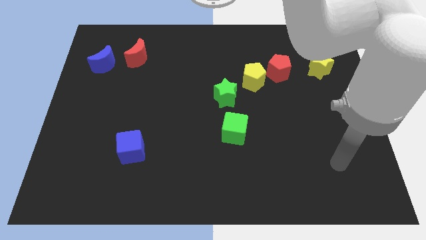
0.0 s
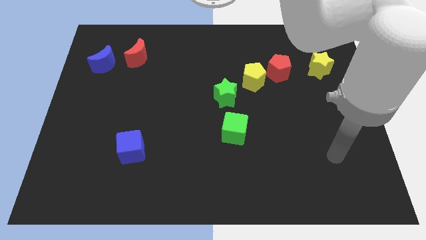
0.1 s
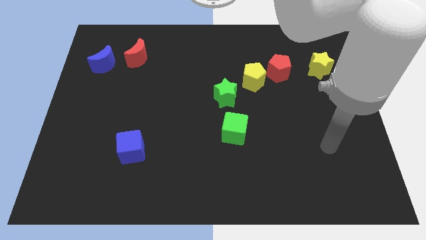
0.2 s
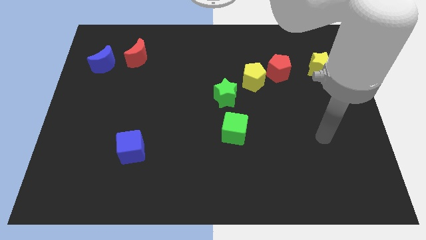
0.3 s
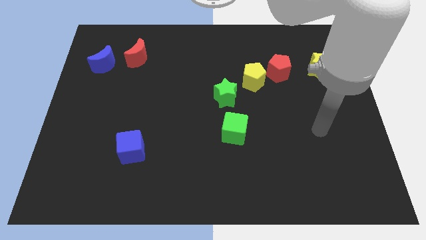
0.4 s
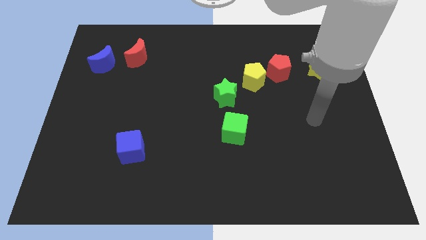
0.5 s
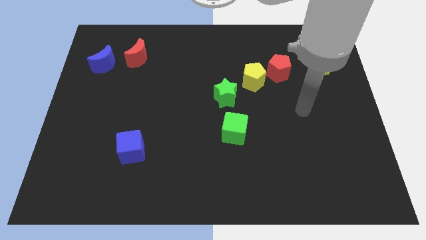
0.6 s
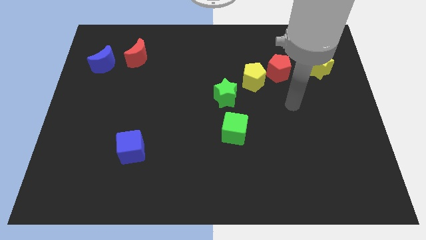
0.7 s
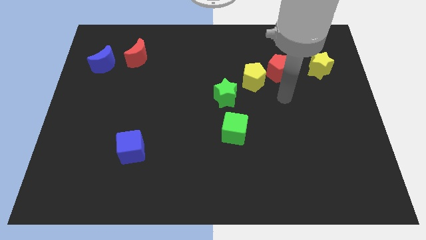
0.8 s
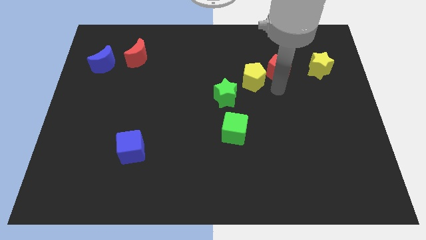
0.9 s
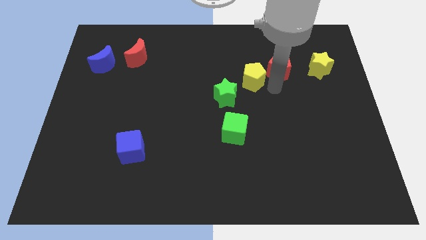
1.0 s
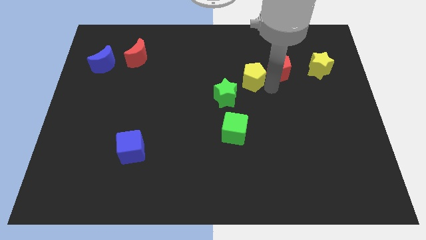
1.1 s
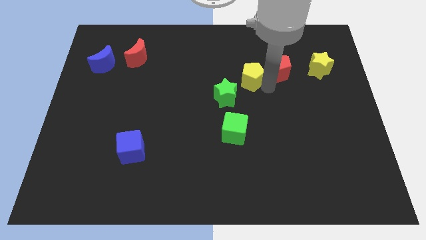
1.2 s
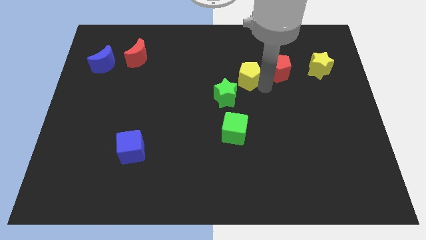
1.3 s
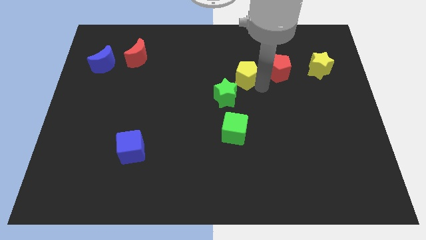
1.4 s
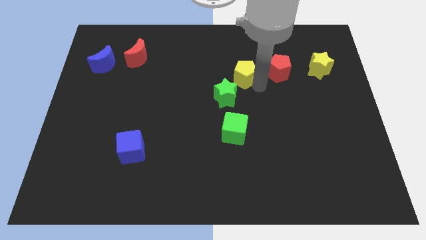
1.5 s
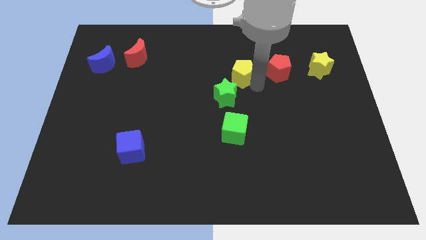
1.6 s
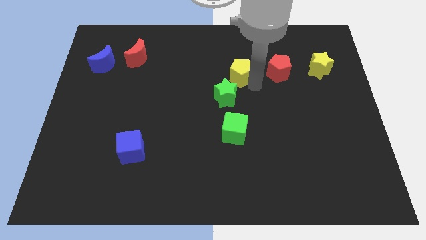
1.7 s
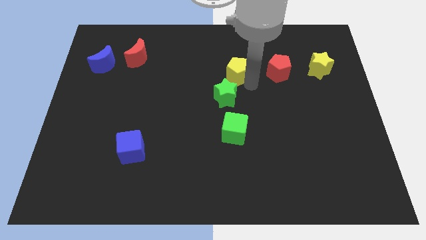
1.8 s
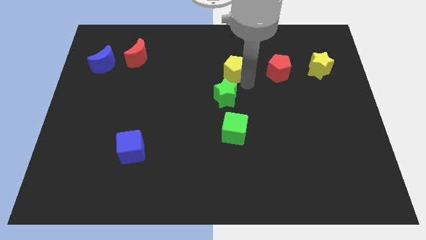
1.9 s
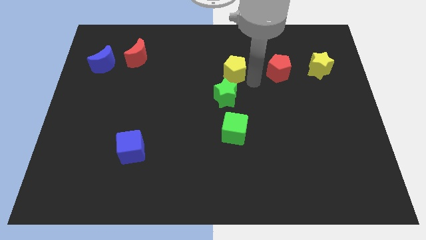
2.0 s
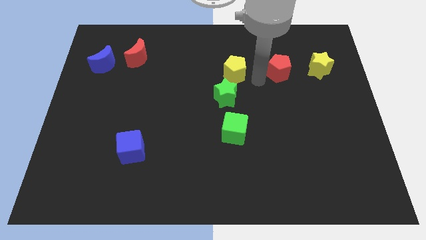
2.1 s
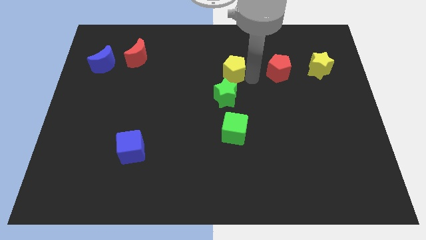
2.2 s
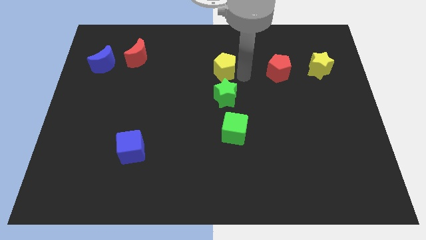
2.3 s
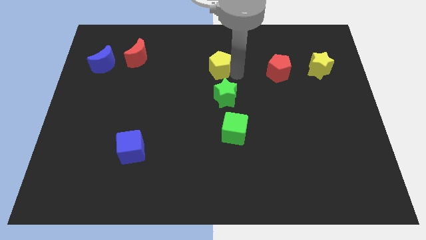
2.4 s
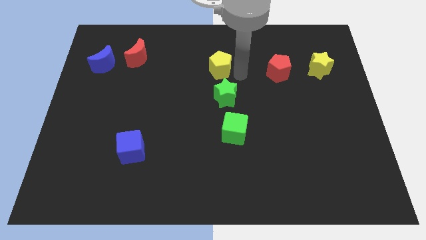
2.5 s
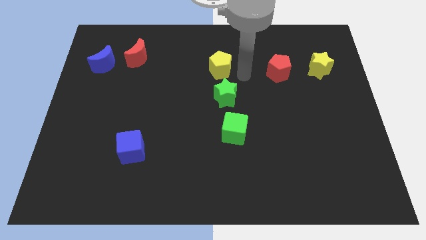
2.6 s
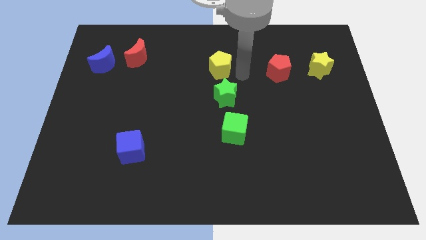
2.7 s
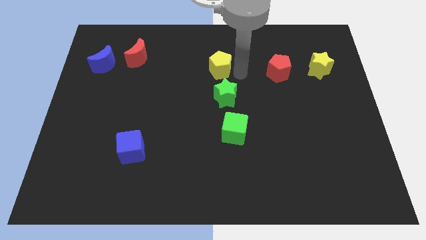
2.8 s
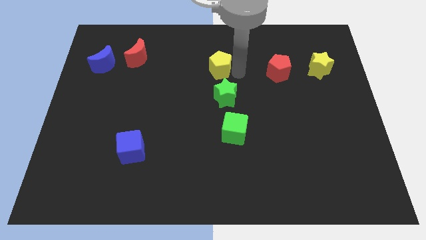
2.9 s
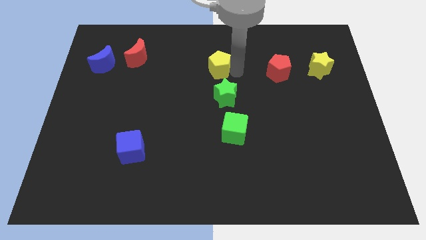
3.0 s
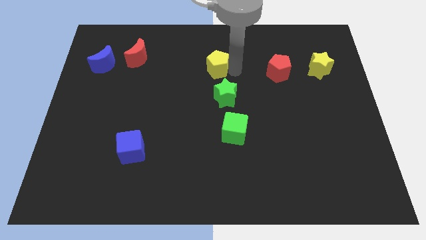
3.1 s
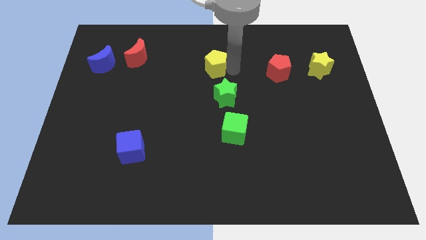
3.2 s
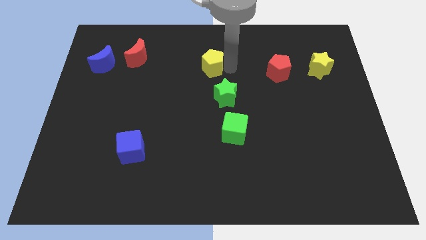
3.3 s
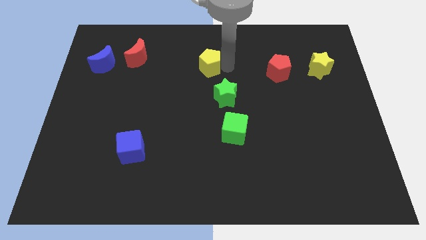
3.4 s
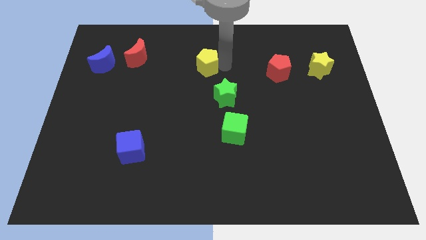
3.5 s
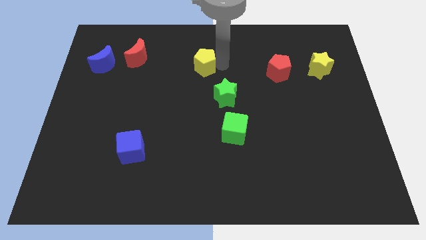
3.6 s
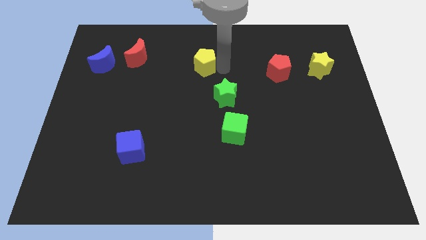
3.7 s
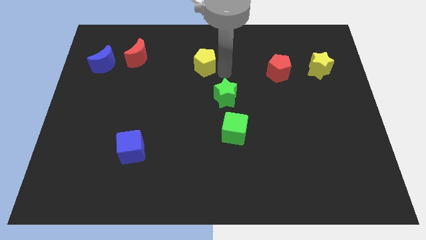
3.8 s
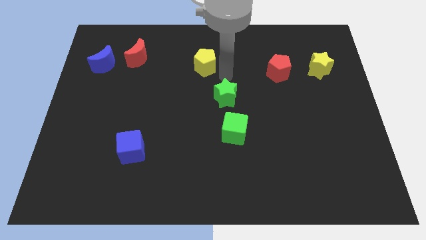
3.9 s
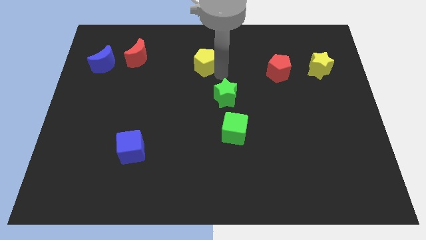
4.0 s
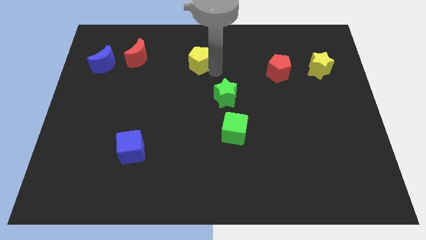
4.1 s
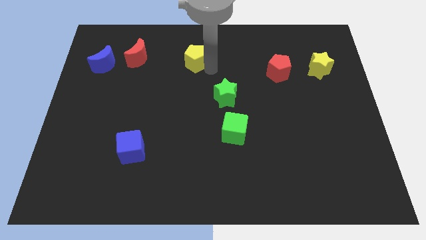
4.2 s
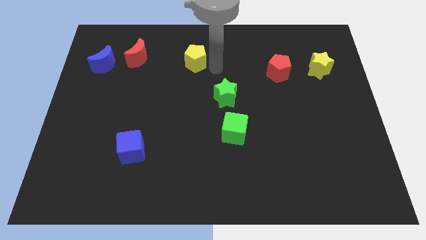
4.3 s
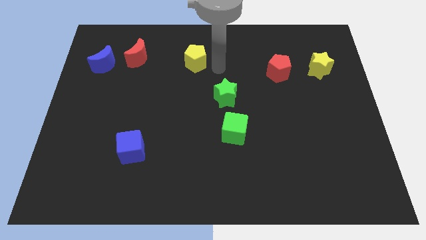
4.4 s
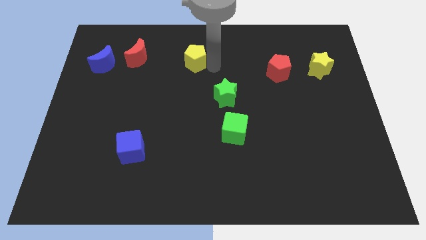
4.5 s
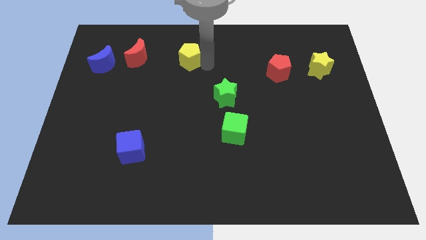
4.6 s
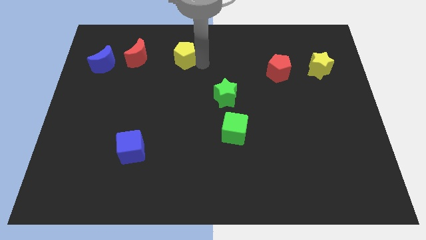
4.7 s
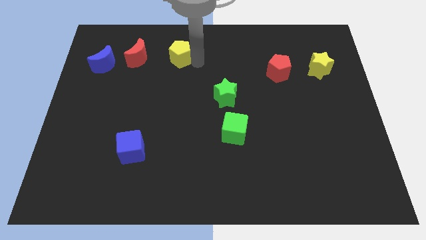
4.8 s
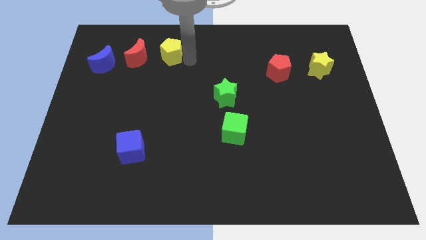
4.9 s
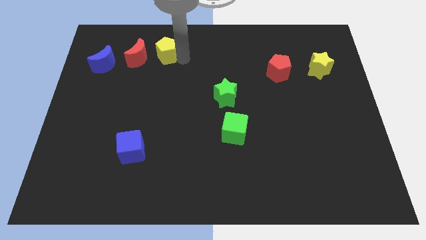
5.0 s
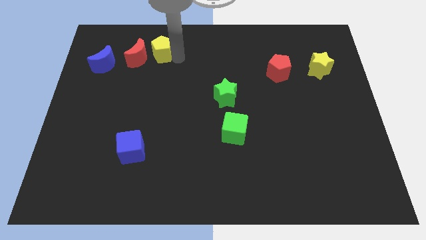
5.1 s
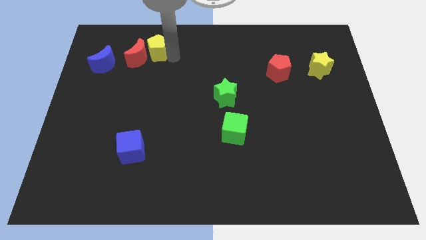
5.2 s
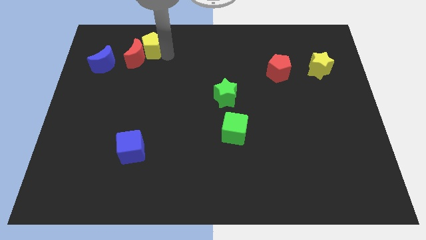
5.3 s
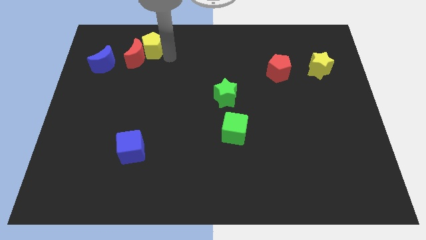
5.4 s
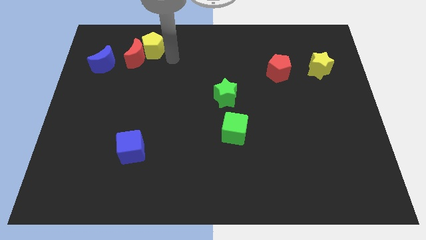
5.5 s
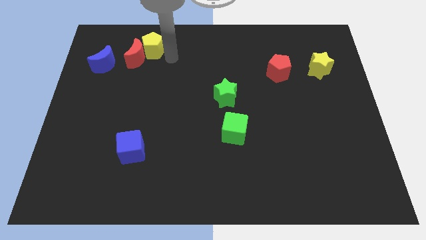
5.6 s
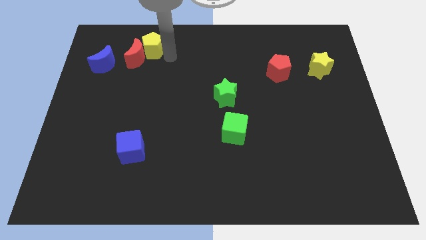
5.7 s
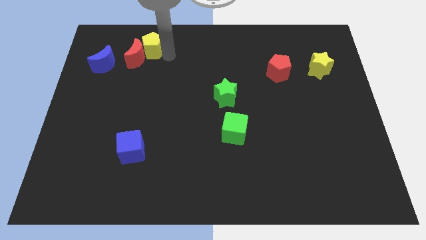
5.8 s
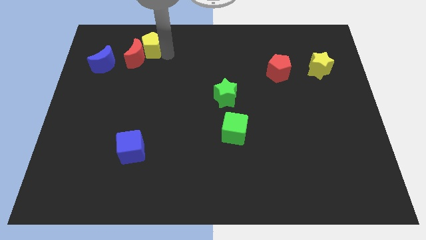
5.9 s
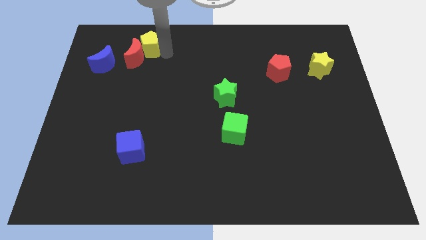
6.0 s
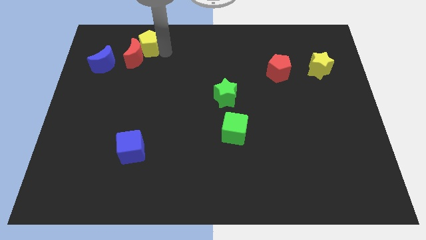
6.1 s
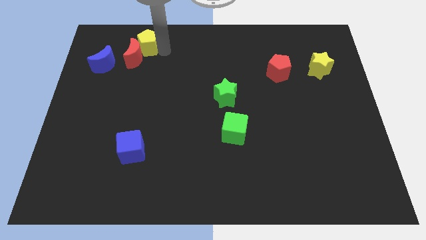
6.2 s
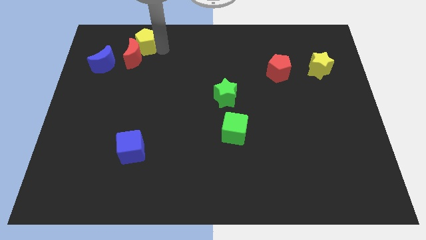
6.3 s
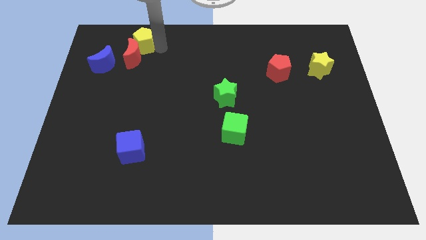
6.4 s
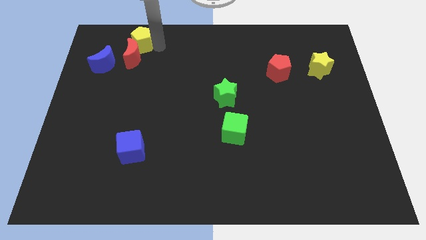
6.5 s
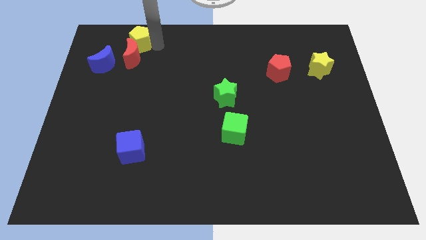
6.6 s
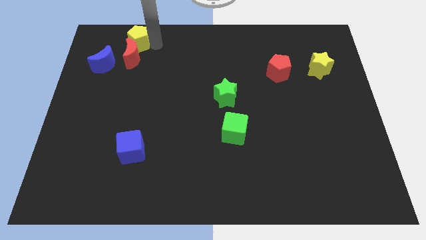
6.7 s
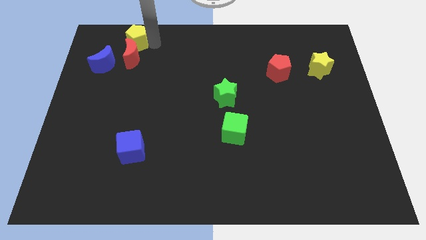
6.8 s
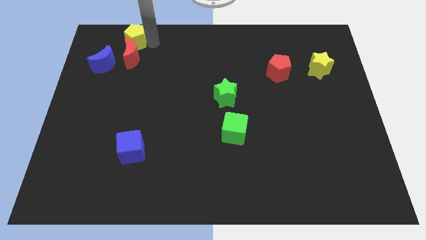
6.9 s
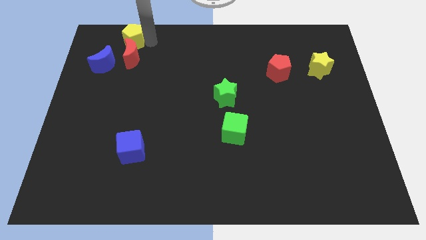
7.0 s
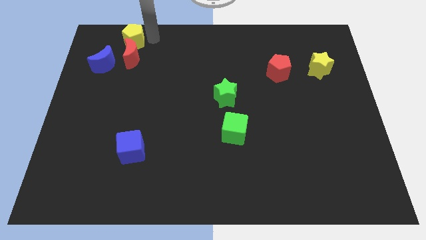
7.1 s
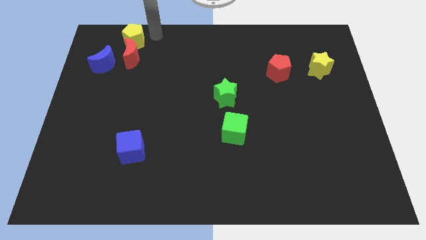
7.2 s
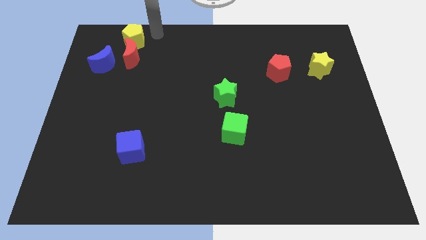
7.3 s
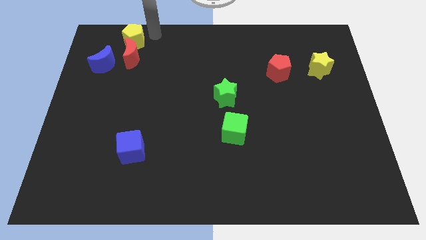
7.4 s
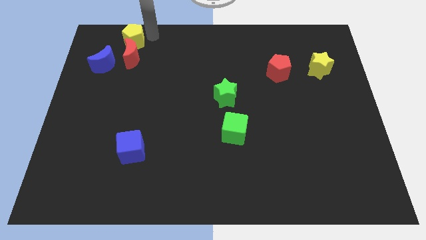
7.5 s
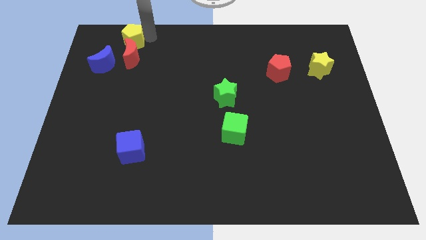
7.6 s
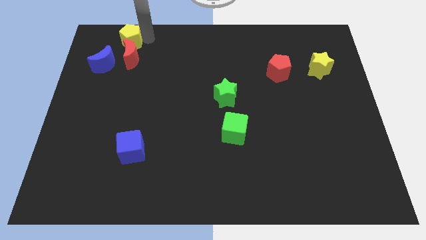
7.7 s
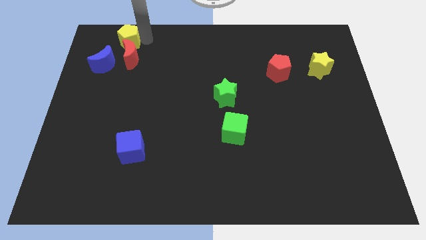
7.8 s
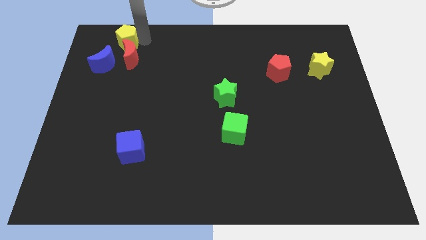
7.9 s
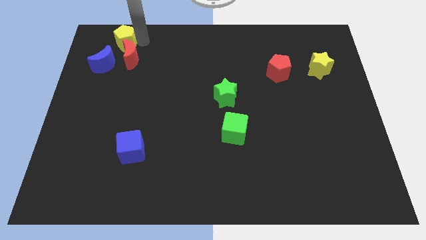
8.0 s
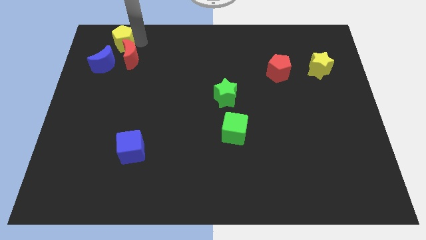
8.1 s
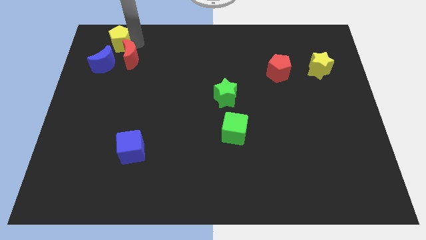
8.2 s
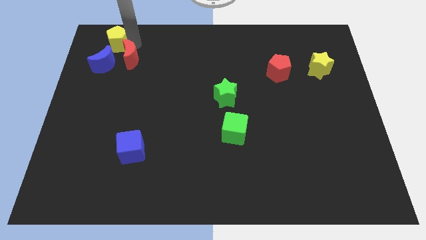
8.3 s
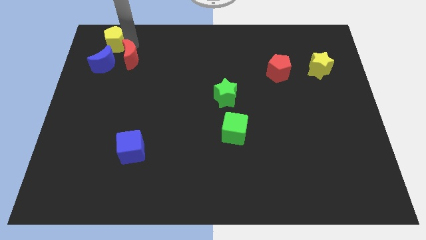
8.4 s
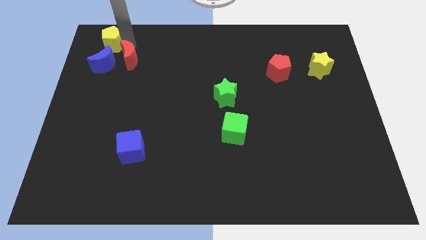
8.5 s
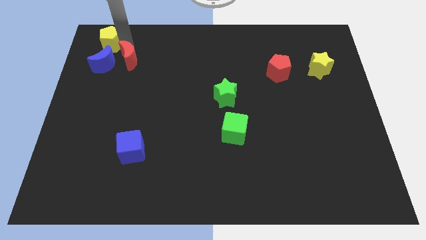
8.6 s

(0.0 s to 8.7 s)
put the yellow pentagon to the top left
